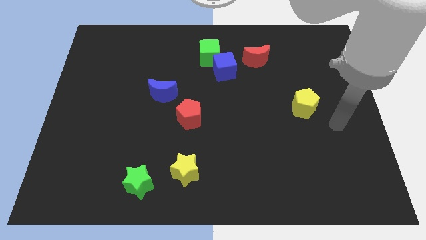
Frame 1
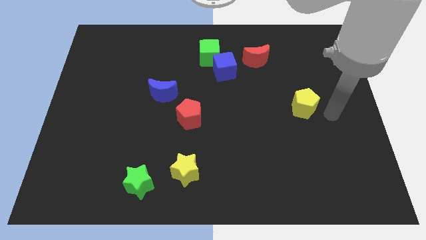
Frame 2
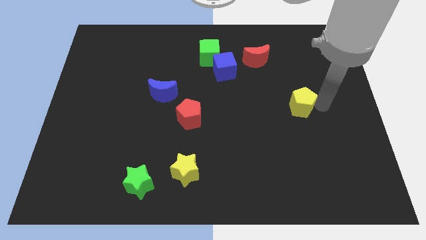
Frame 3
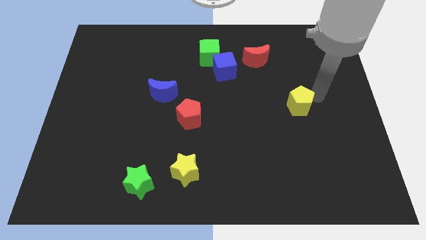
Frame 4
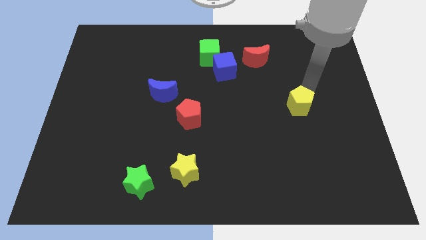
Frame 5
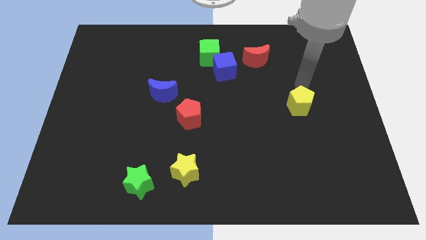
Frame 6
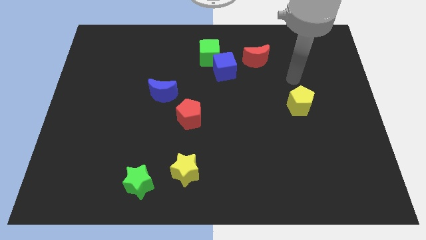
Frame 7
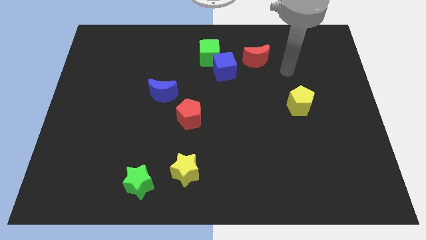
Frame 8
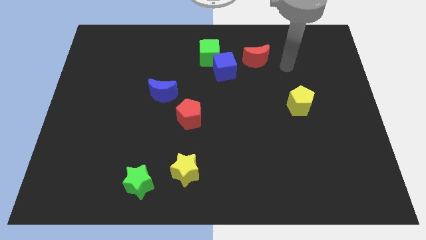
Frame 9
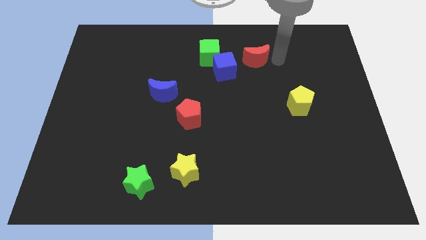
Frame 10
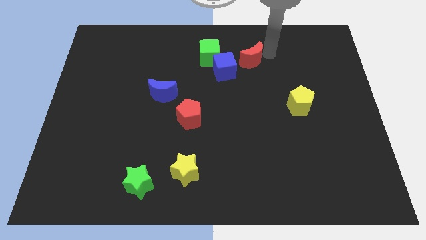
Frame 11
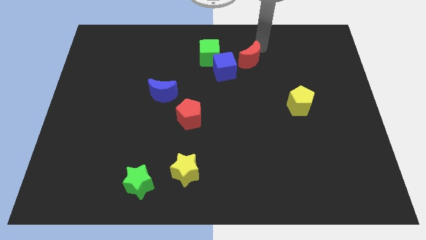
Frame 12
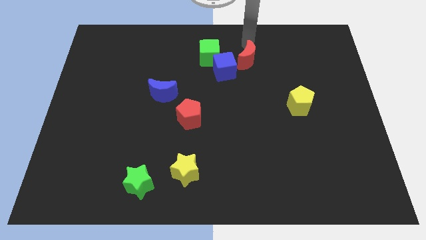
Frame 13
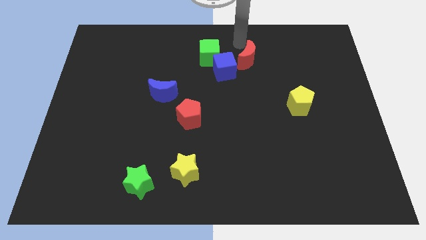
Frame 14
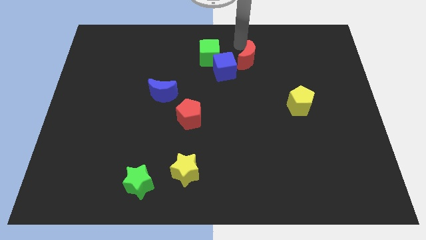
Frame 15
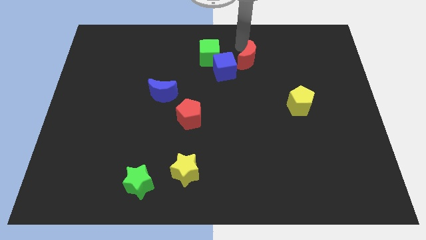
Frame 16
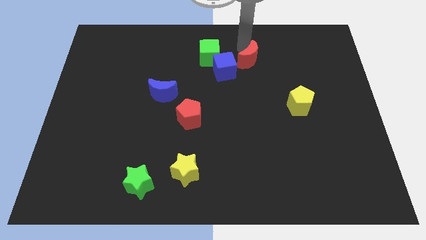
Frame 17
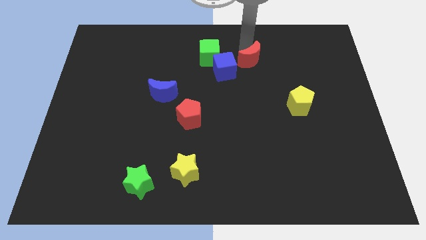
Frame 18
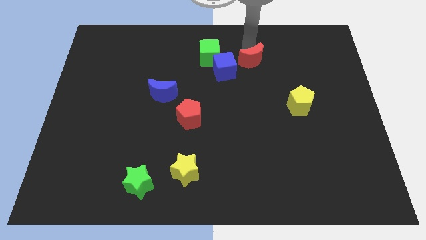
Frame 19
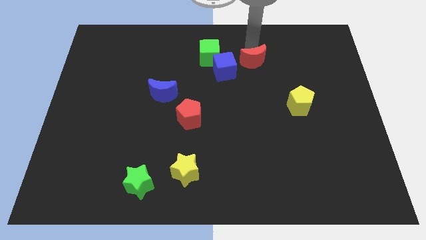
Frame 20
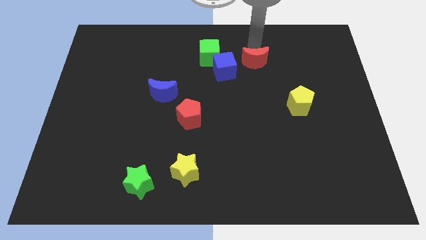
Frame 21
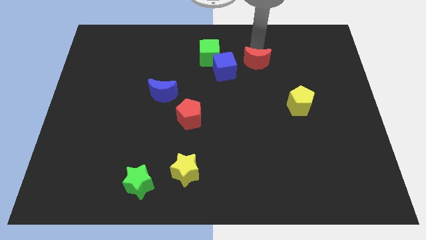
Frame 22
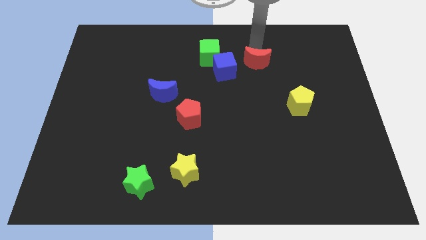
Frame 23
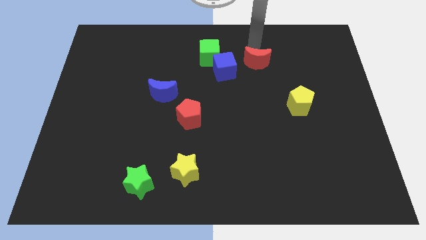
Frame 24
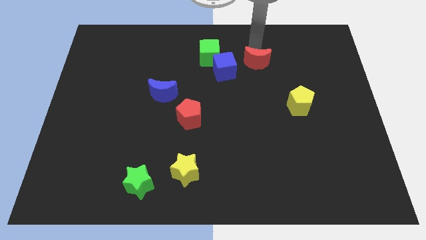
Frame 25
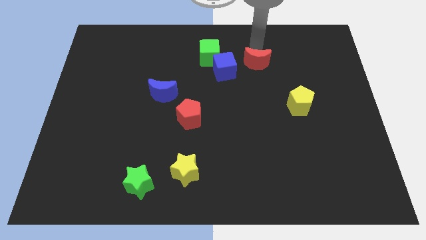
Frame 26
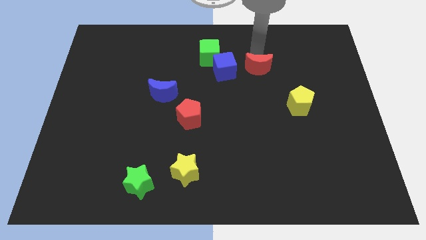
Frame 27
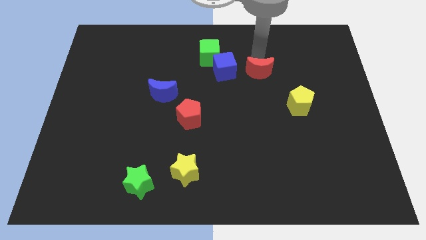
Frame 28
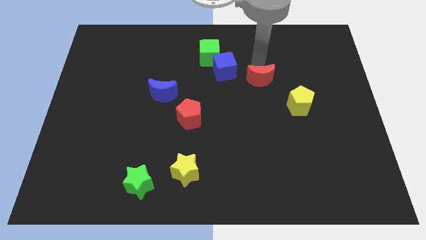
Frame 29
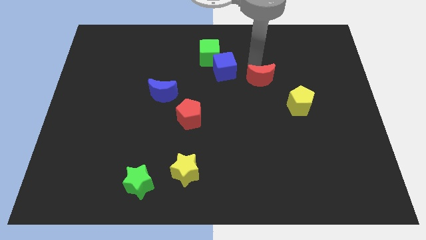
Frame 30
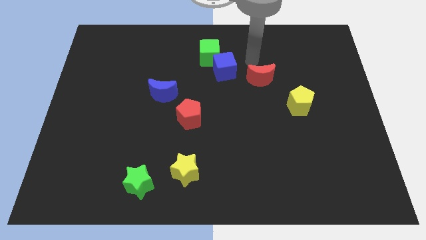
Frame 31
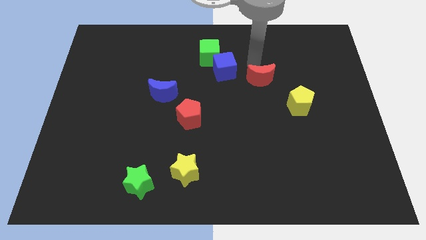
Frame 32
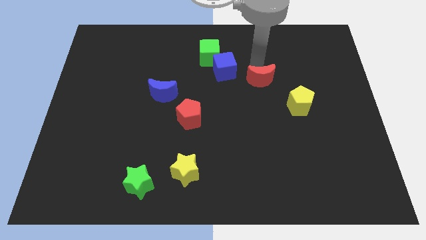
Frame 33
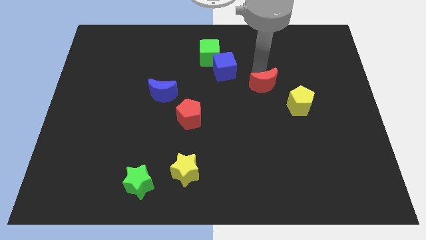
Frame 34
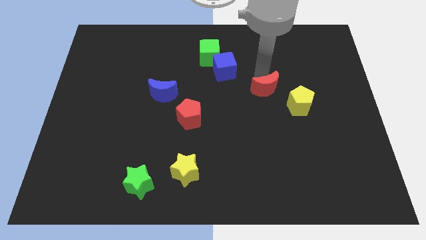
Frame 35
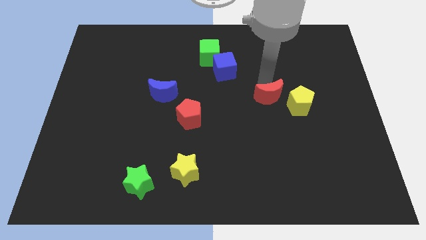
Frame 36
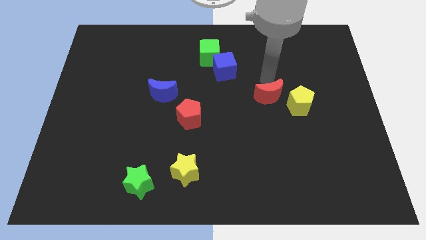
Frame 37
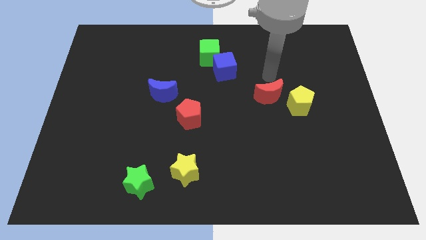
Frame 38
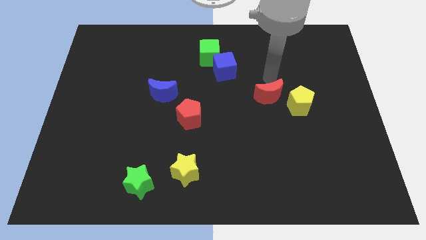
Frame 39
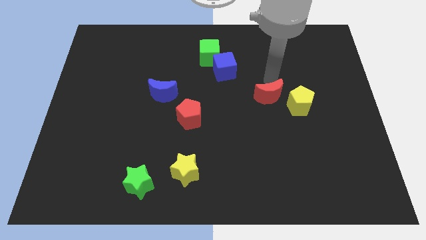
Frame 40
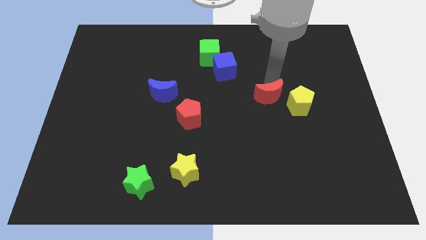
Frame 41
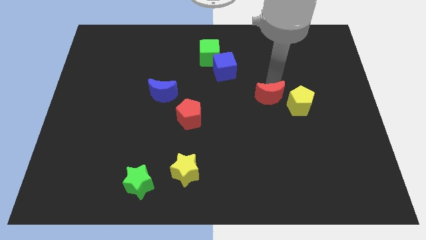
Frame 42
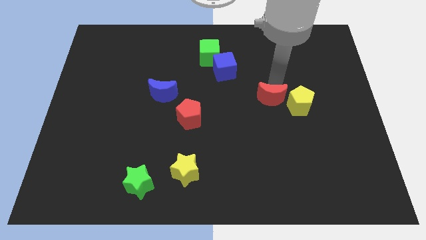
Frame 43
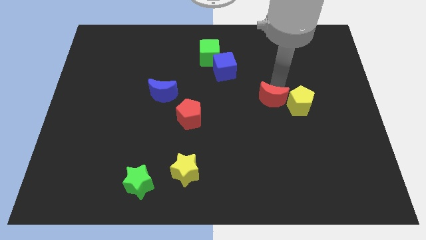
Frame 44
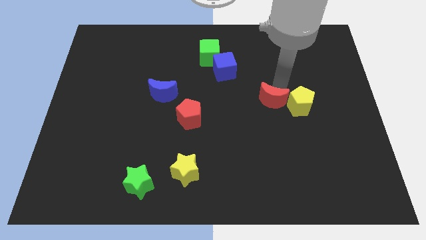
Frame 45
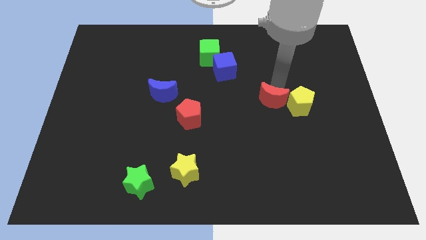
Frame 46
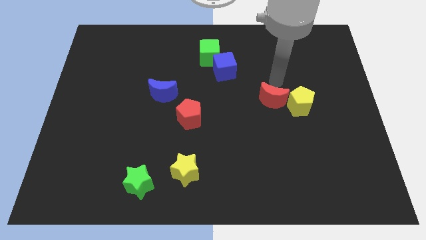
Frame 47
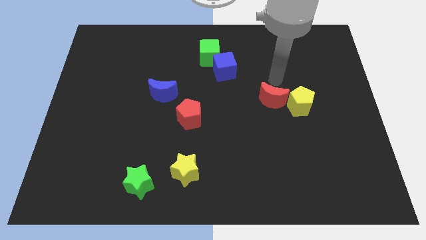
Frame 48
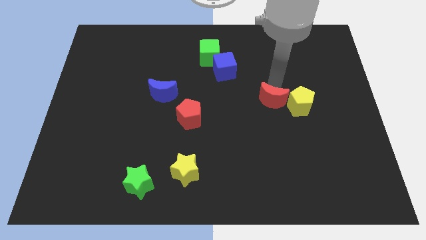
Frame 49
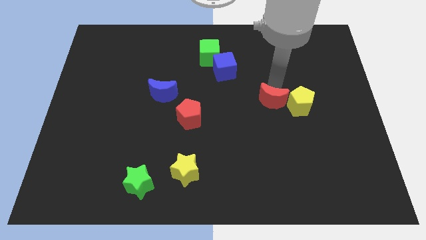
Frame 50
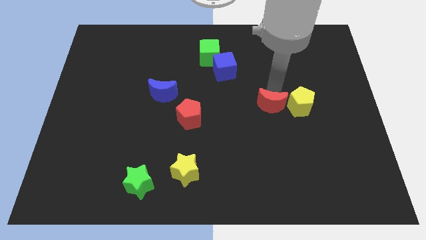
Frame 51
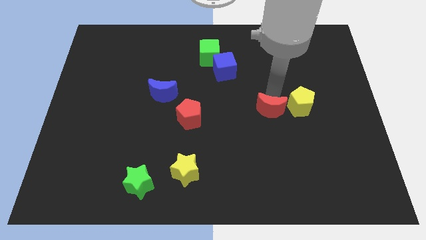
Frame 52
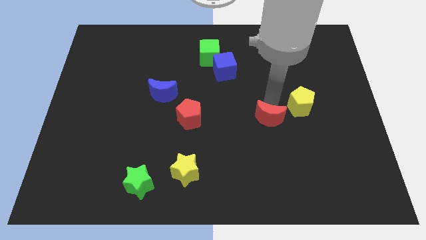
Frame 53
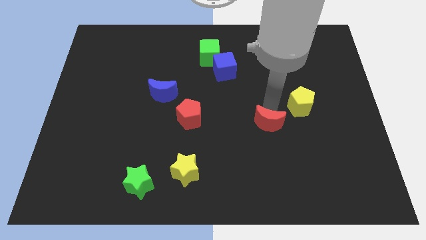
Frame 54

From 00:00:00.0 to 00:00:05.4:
slide the red moon down

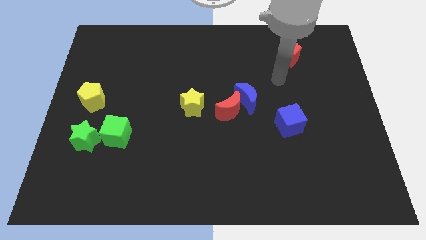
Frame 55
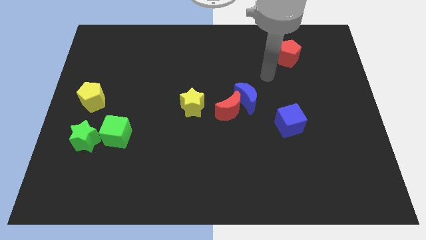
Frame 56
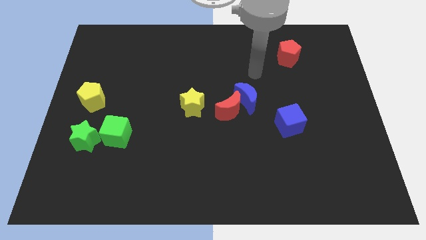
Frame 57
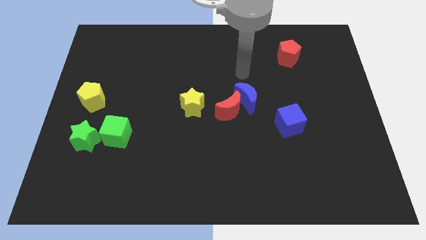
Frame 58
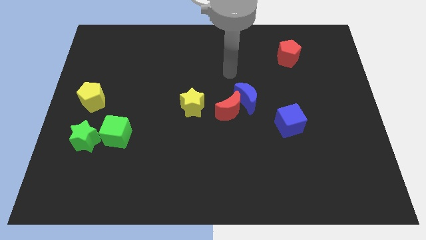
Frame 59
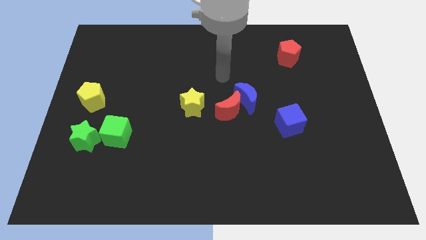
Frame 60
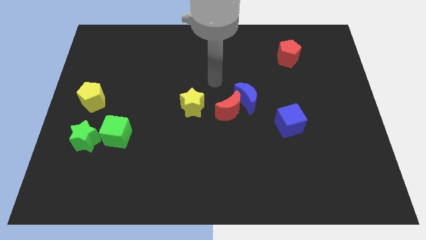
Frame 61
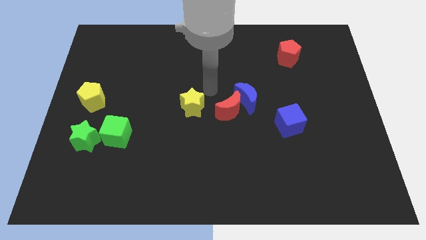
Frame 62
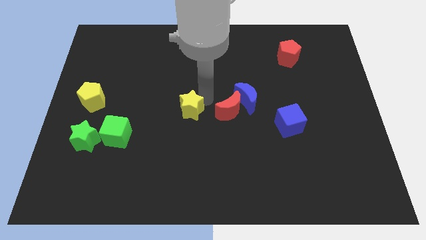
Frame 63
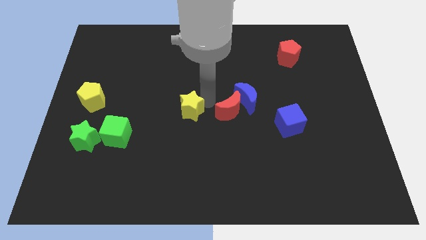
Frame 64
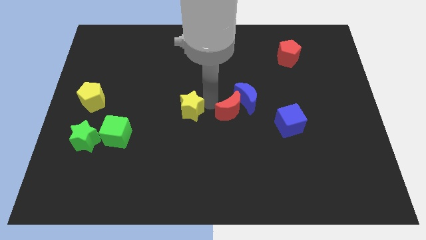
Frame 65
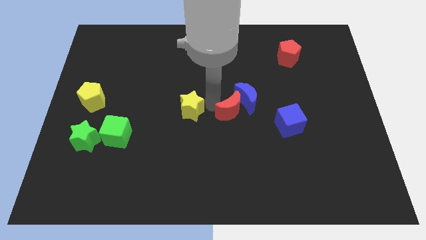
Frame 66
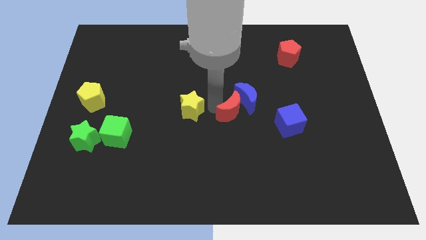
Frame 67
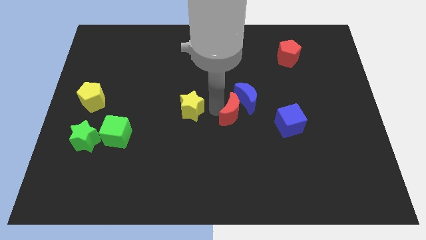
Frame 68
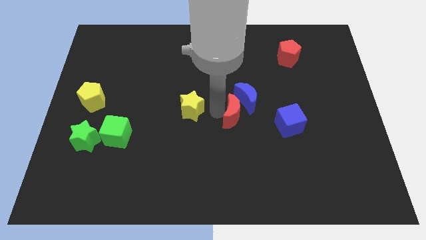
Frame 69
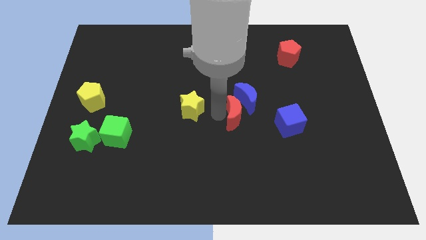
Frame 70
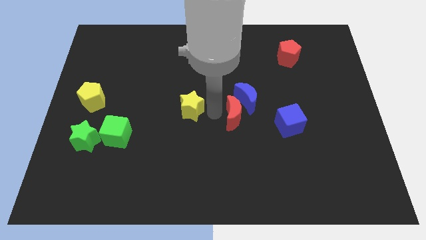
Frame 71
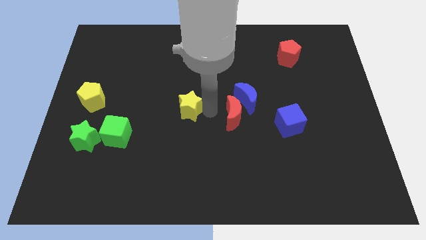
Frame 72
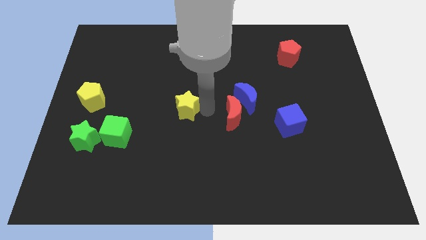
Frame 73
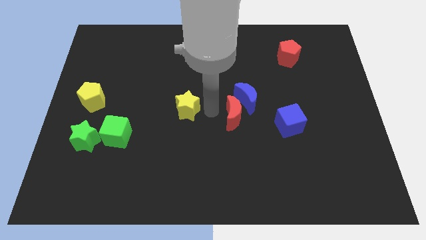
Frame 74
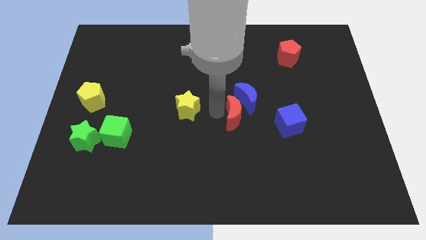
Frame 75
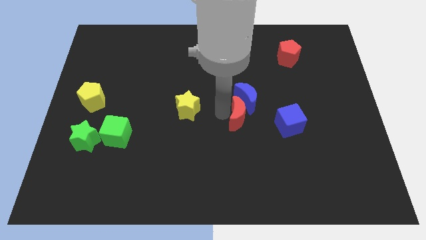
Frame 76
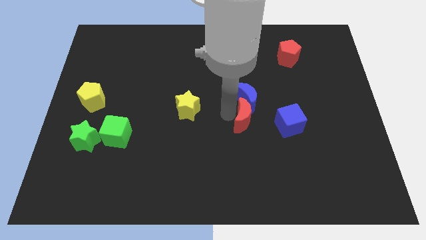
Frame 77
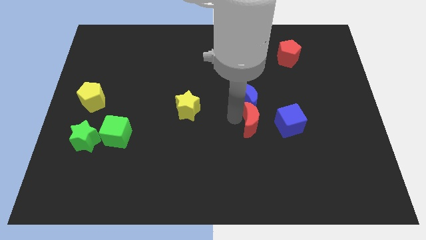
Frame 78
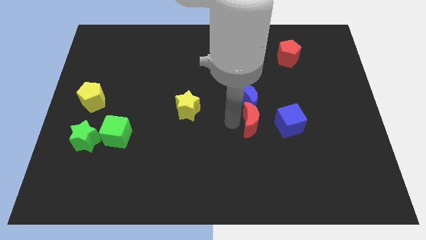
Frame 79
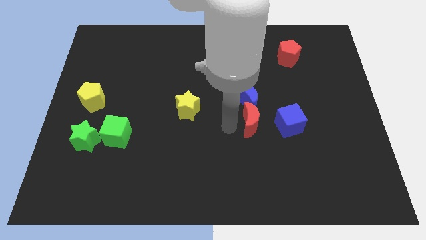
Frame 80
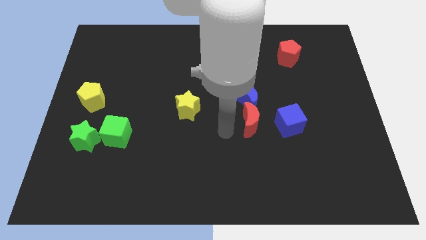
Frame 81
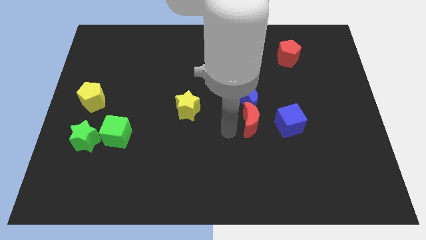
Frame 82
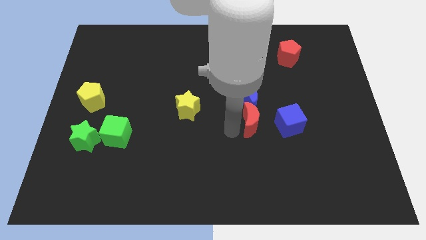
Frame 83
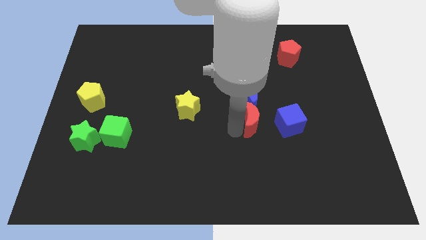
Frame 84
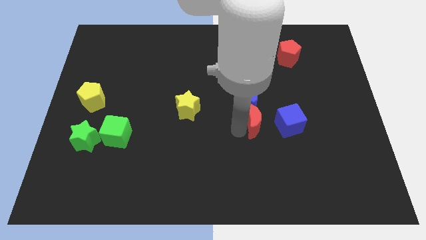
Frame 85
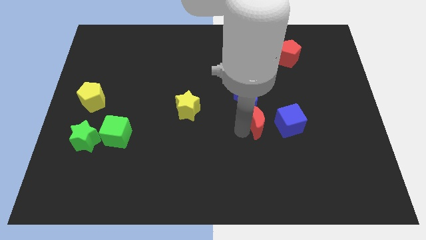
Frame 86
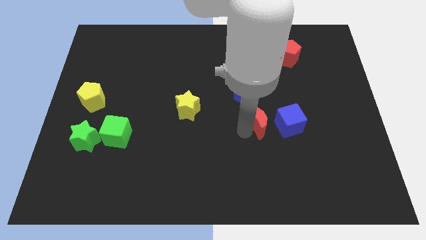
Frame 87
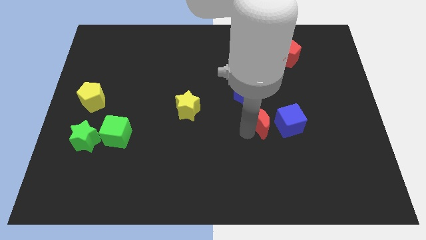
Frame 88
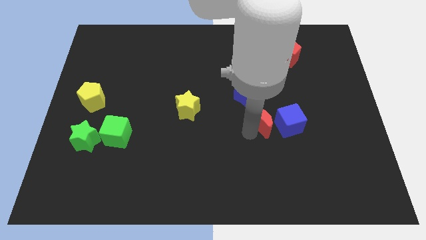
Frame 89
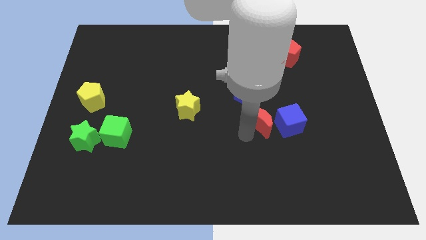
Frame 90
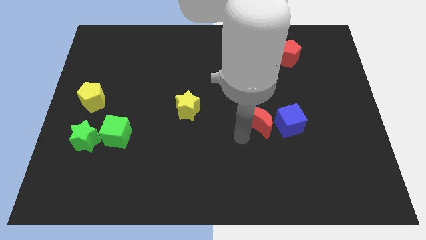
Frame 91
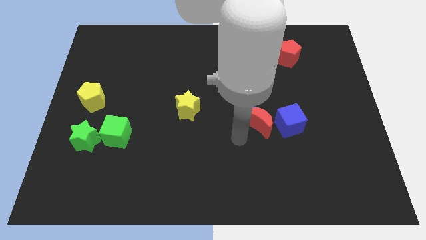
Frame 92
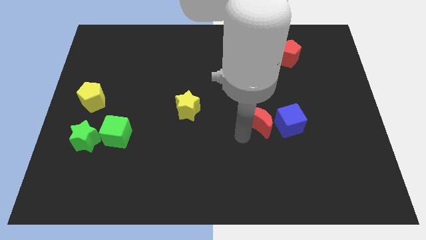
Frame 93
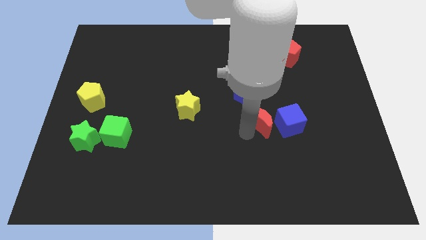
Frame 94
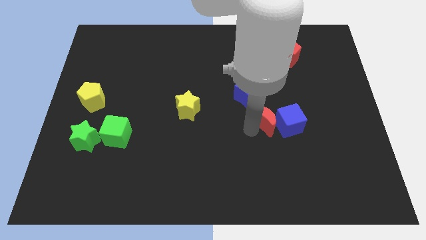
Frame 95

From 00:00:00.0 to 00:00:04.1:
slide the red moon to the right somewhat
